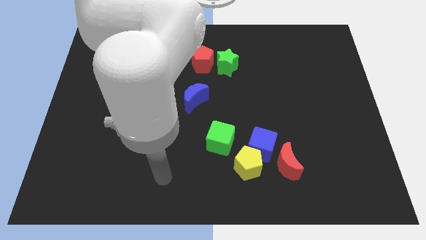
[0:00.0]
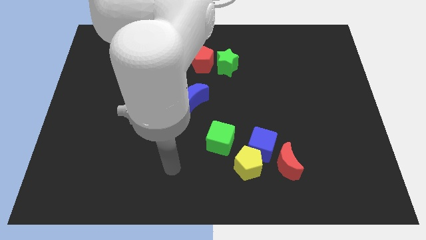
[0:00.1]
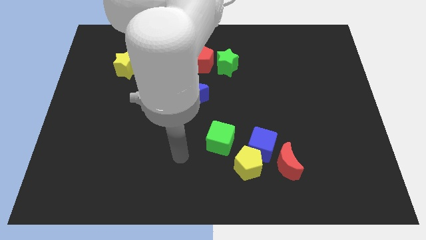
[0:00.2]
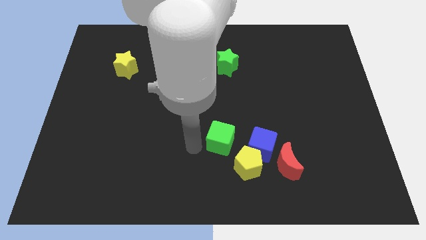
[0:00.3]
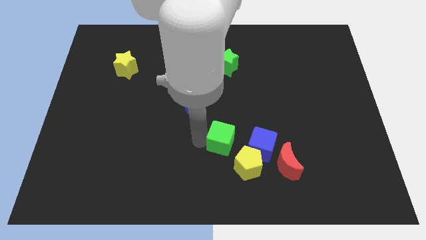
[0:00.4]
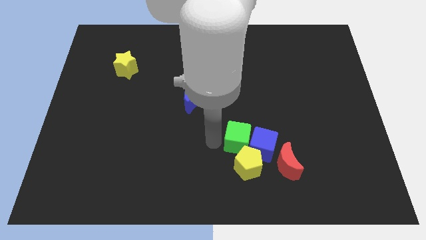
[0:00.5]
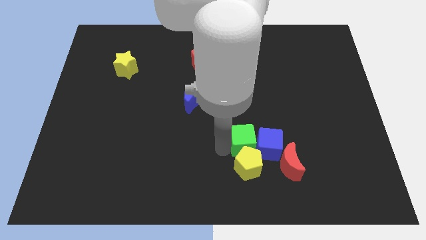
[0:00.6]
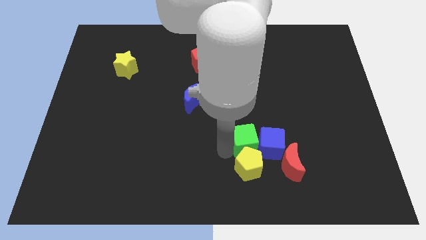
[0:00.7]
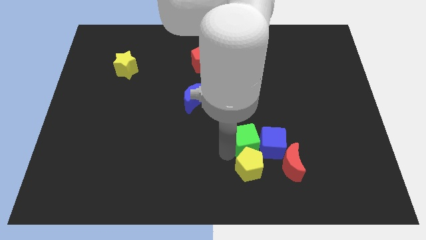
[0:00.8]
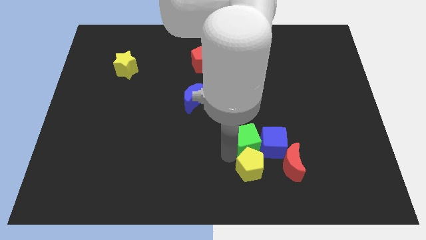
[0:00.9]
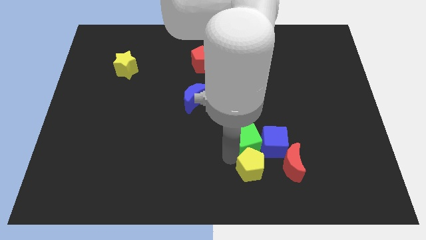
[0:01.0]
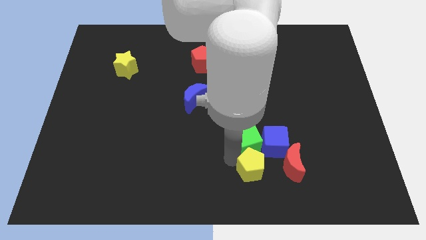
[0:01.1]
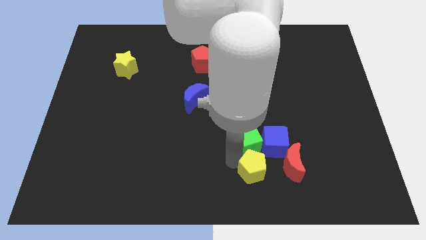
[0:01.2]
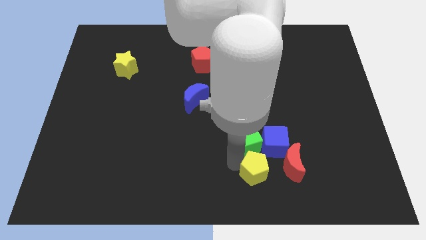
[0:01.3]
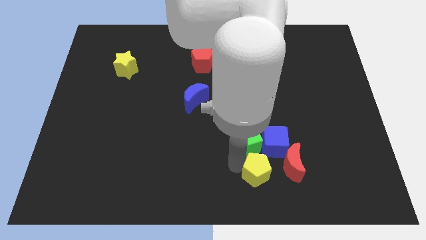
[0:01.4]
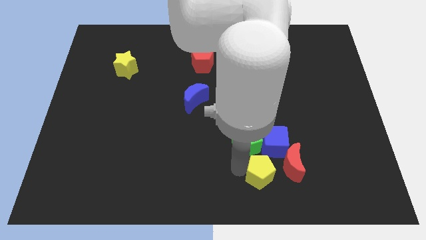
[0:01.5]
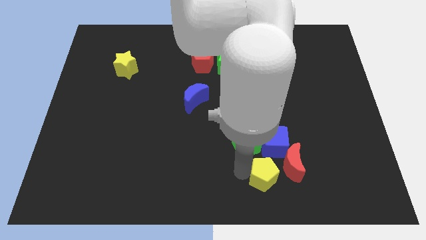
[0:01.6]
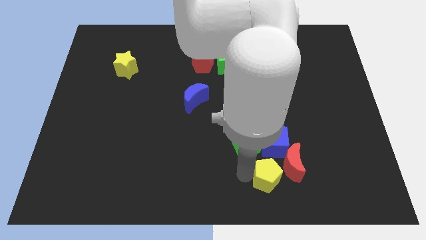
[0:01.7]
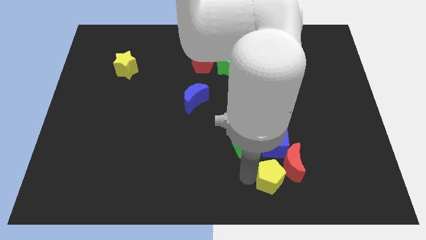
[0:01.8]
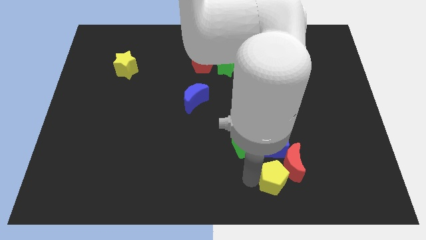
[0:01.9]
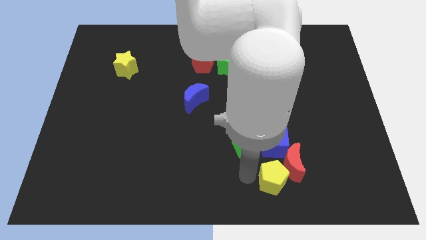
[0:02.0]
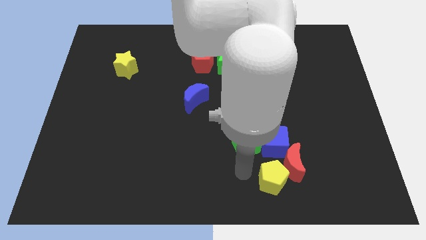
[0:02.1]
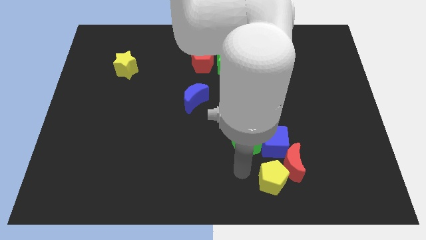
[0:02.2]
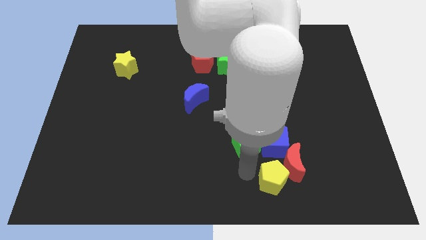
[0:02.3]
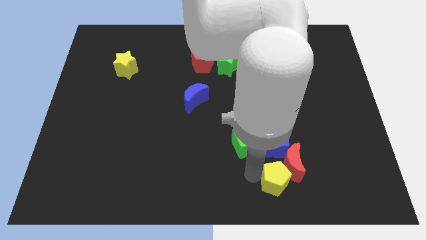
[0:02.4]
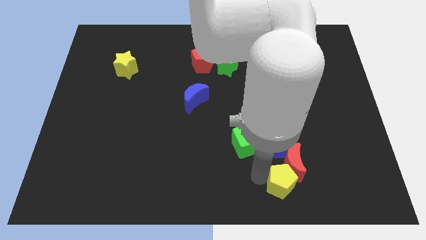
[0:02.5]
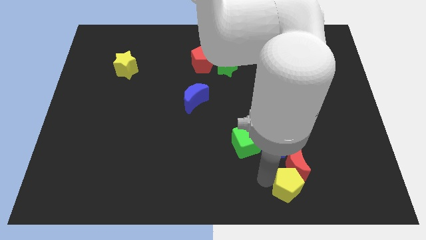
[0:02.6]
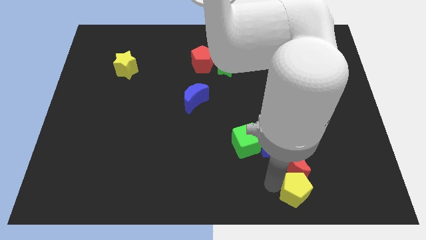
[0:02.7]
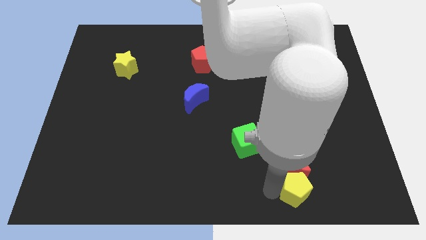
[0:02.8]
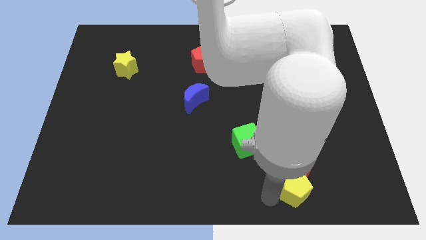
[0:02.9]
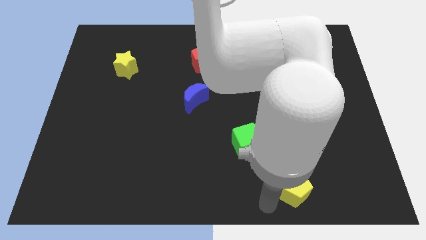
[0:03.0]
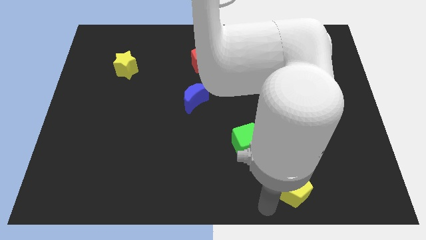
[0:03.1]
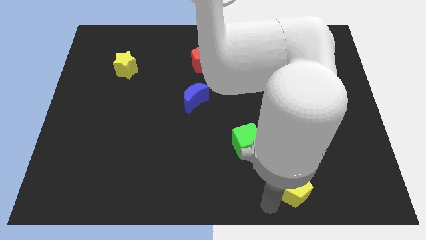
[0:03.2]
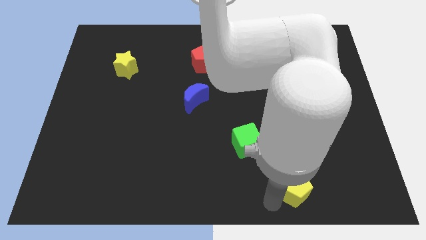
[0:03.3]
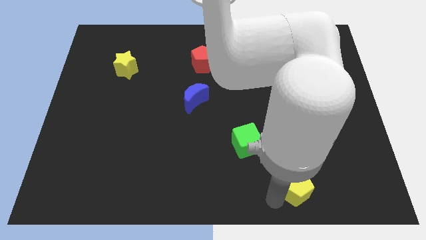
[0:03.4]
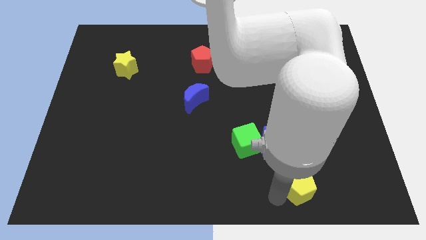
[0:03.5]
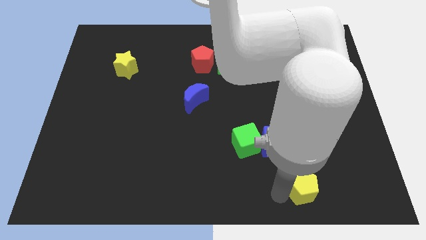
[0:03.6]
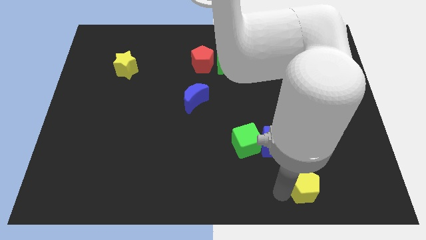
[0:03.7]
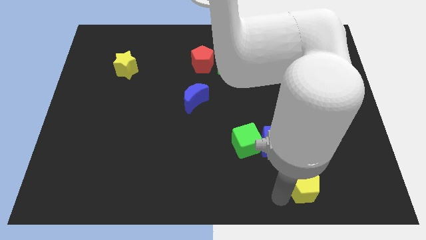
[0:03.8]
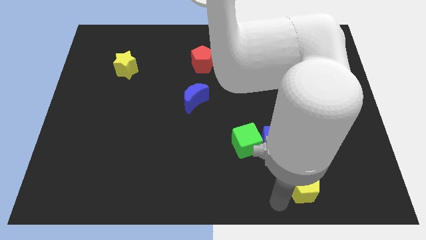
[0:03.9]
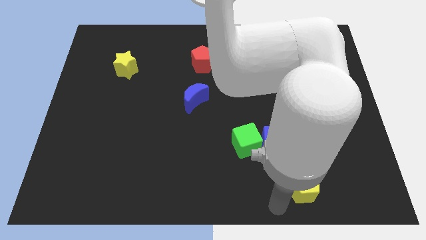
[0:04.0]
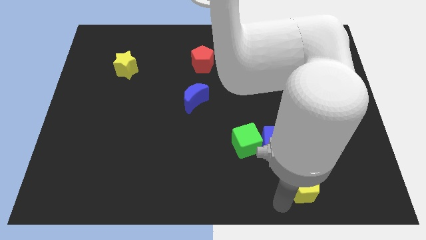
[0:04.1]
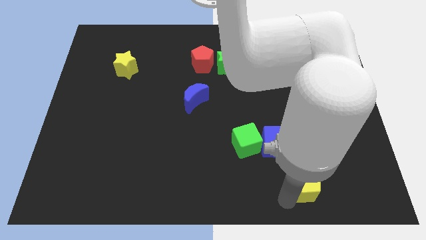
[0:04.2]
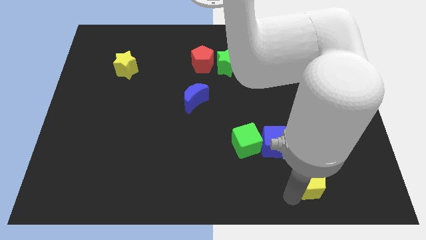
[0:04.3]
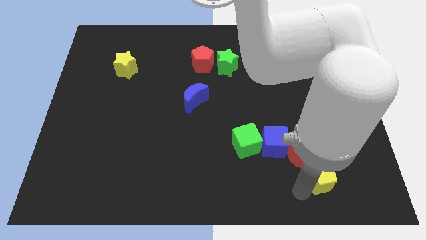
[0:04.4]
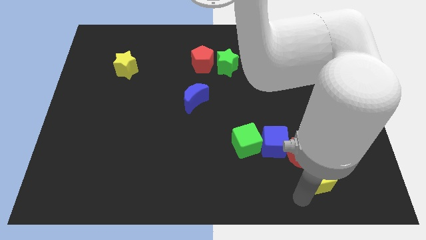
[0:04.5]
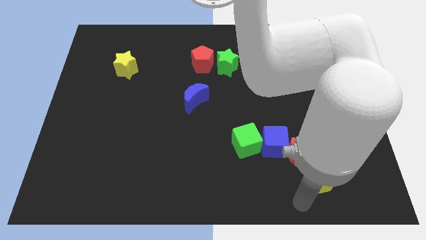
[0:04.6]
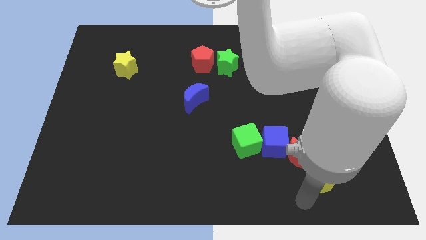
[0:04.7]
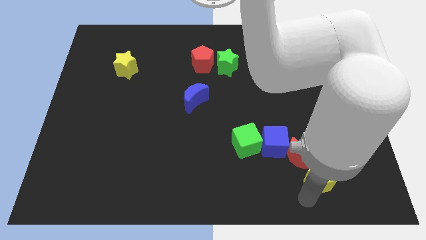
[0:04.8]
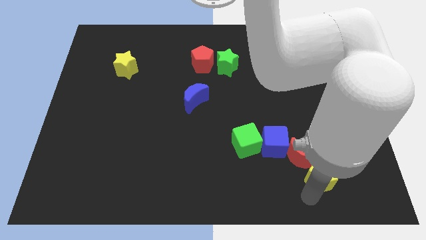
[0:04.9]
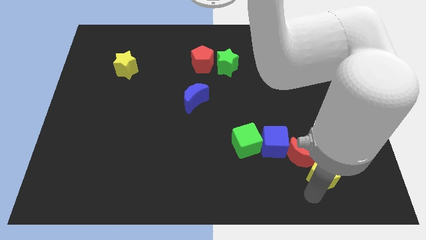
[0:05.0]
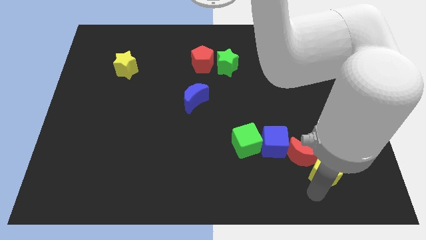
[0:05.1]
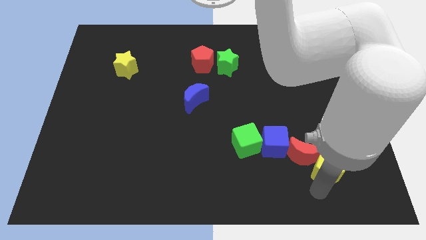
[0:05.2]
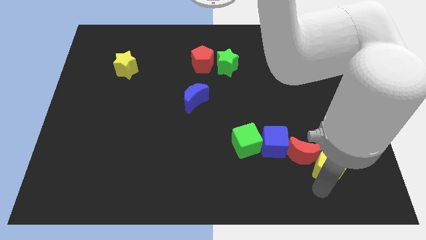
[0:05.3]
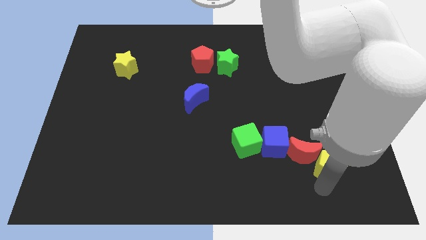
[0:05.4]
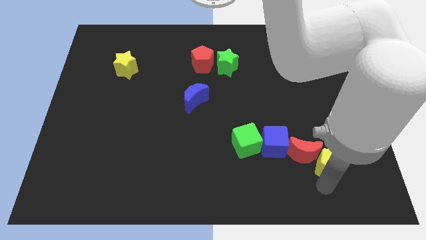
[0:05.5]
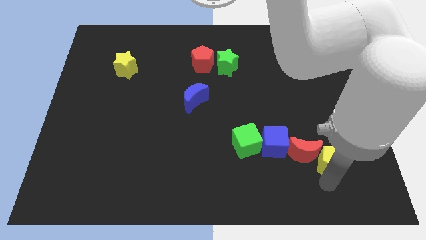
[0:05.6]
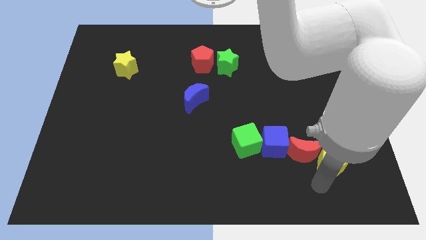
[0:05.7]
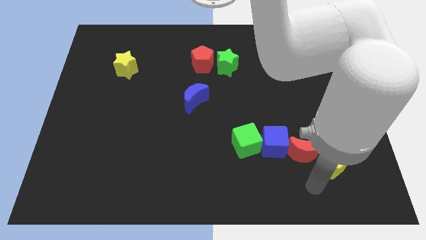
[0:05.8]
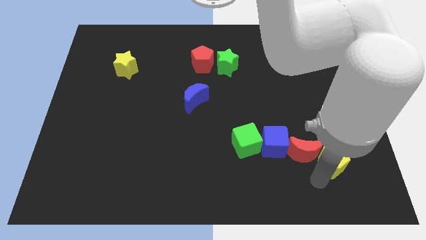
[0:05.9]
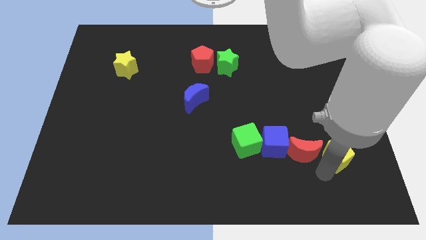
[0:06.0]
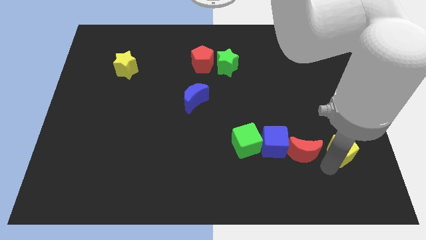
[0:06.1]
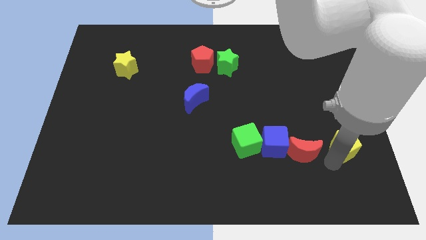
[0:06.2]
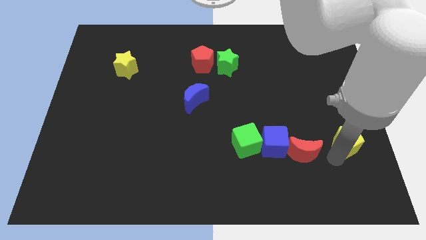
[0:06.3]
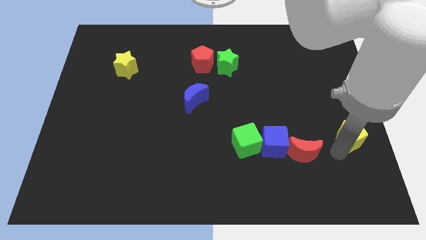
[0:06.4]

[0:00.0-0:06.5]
push the yellow pentagon to the right side of the board
